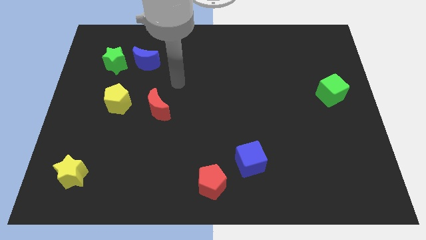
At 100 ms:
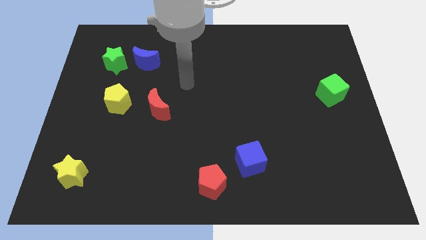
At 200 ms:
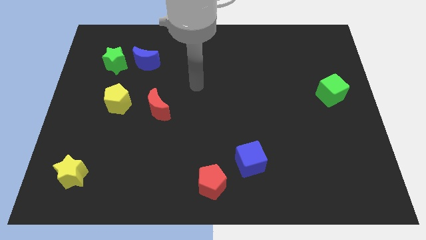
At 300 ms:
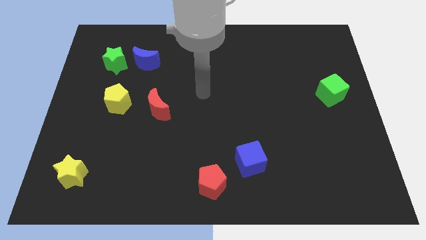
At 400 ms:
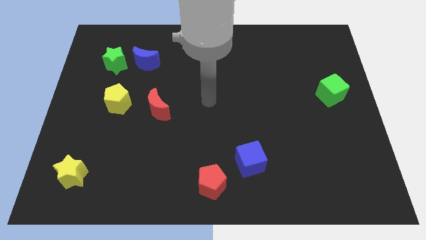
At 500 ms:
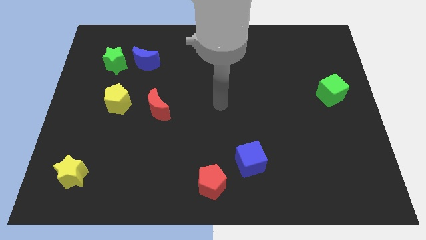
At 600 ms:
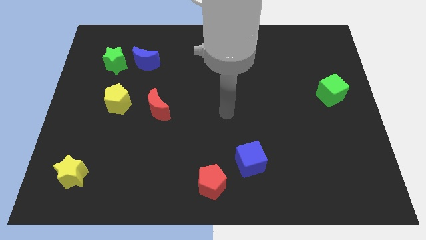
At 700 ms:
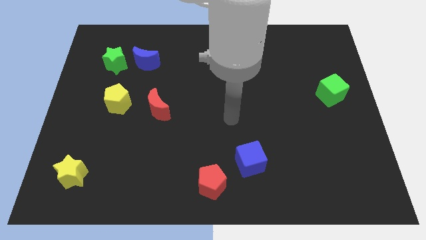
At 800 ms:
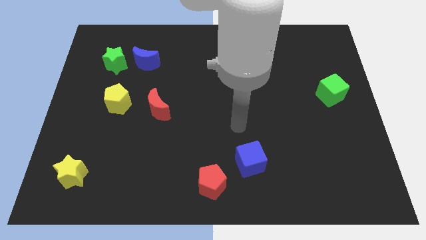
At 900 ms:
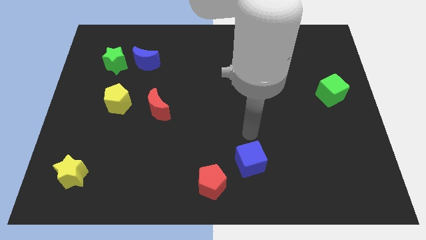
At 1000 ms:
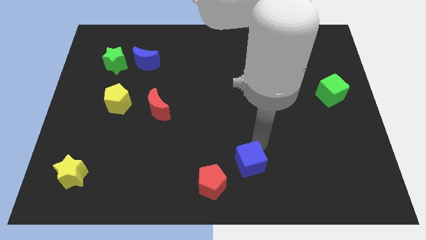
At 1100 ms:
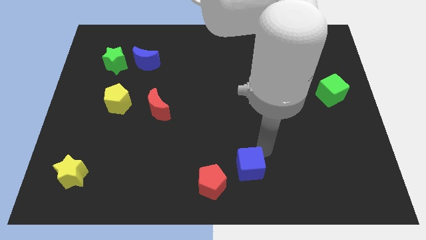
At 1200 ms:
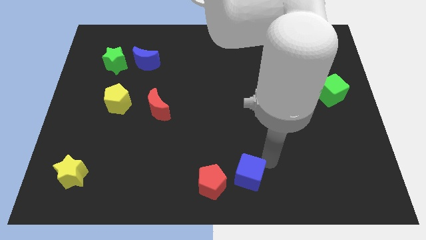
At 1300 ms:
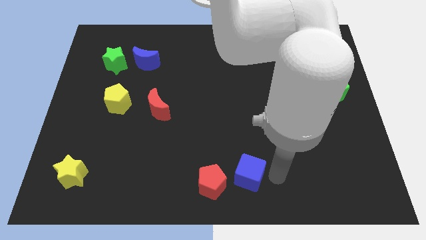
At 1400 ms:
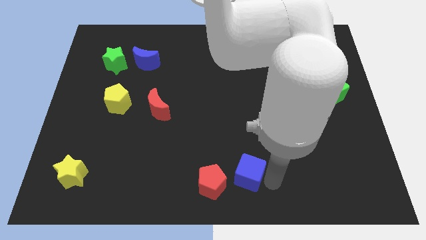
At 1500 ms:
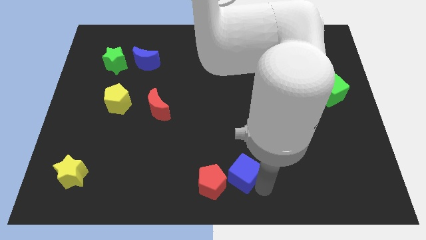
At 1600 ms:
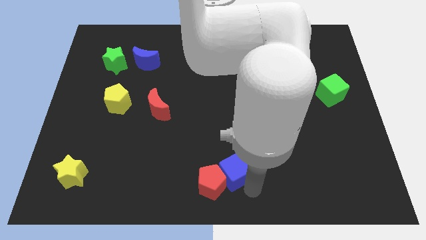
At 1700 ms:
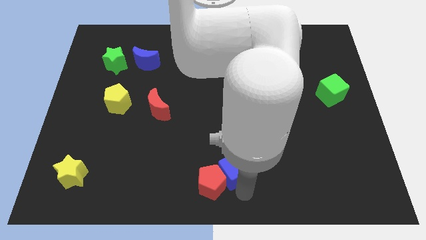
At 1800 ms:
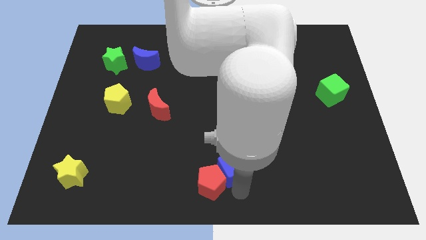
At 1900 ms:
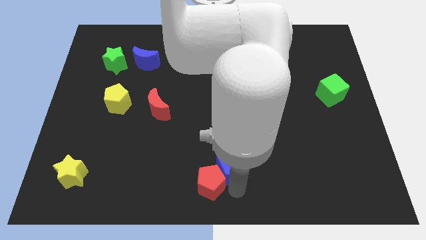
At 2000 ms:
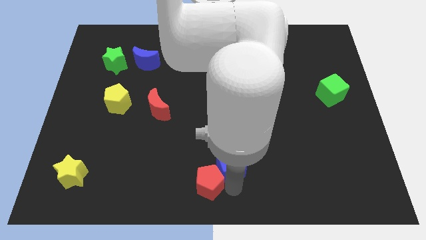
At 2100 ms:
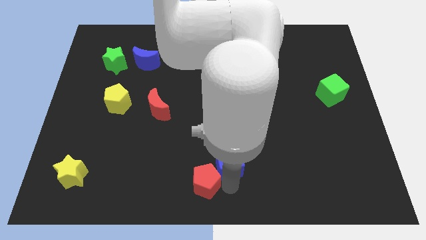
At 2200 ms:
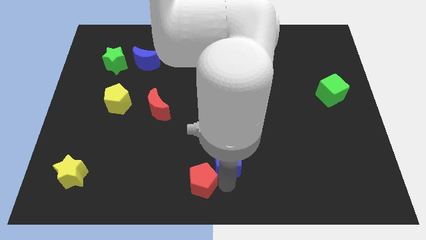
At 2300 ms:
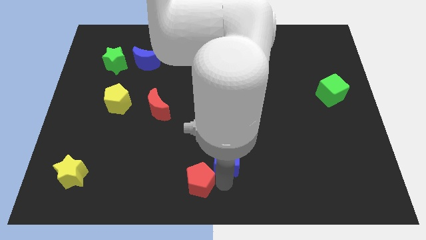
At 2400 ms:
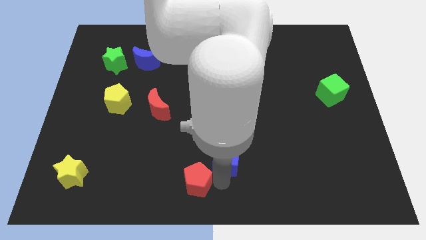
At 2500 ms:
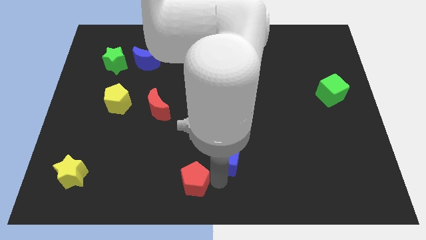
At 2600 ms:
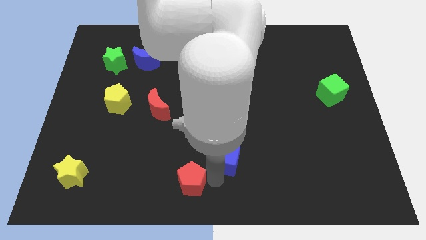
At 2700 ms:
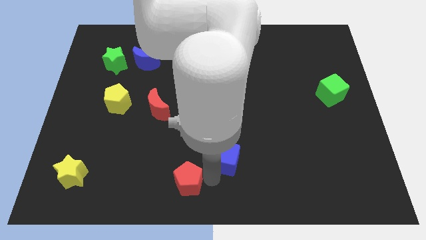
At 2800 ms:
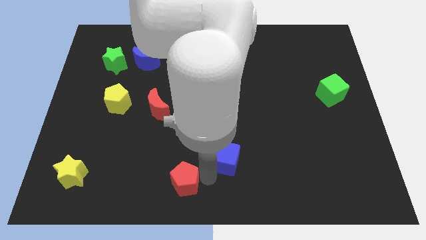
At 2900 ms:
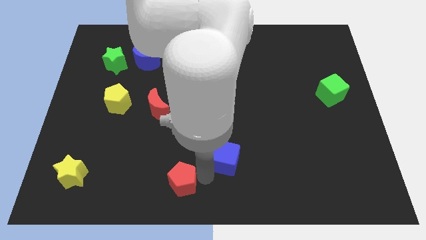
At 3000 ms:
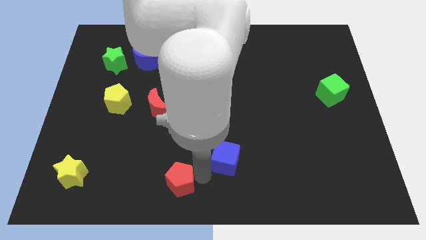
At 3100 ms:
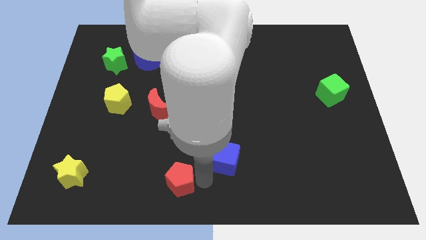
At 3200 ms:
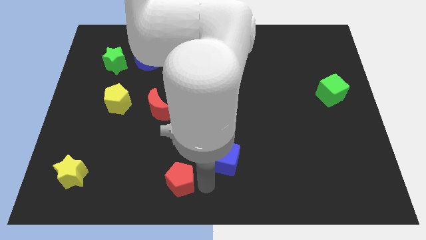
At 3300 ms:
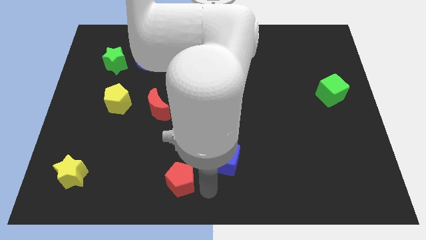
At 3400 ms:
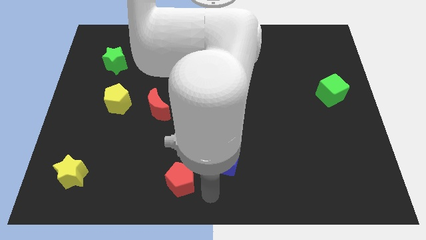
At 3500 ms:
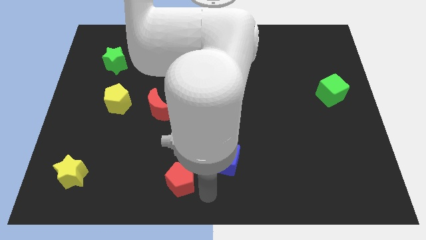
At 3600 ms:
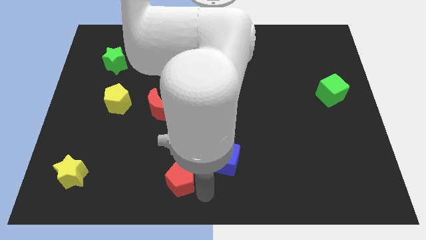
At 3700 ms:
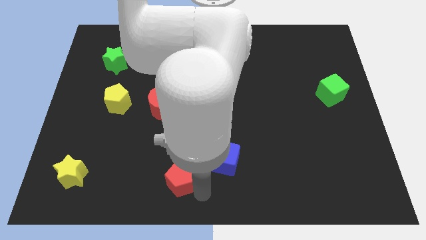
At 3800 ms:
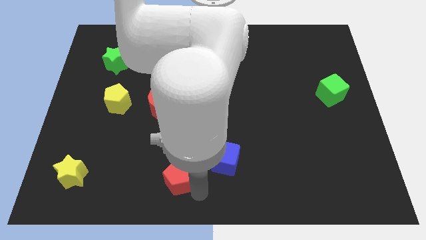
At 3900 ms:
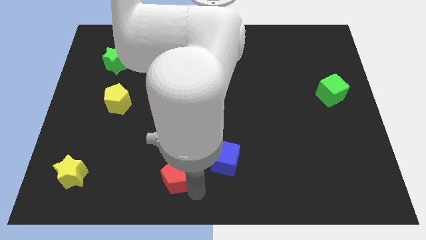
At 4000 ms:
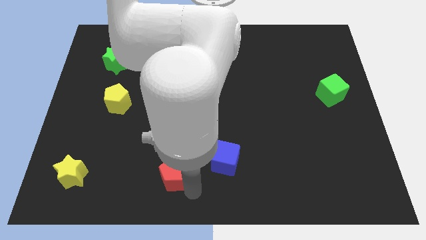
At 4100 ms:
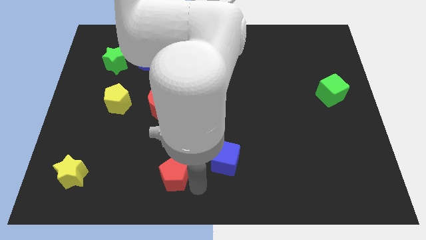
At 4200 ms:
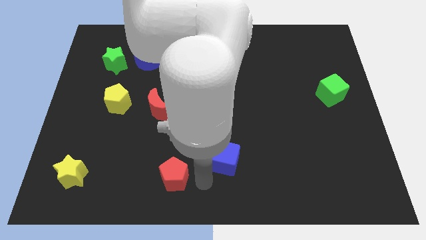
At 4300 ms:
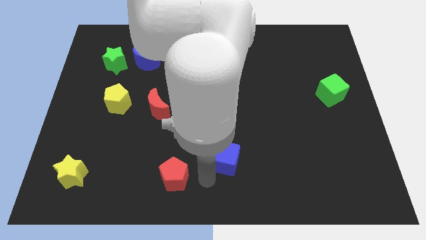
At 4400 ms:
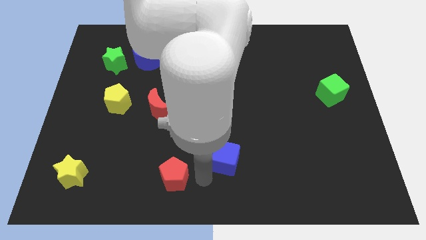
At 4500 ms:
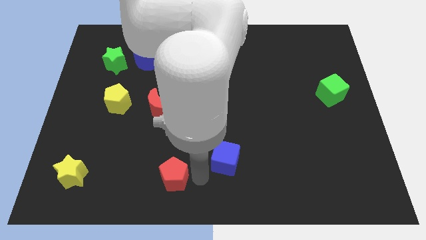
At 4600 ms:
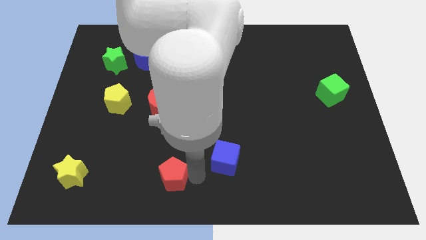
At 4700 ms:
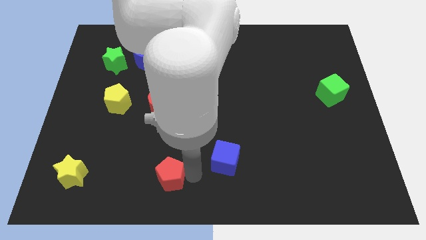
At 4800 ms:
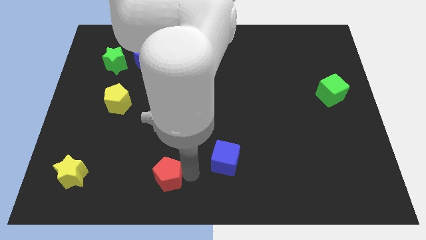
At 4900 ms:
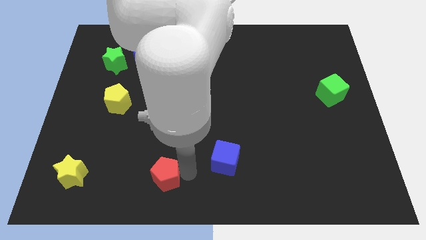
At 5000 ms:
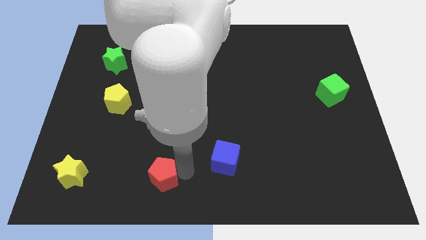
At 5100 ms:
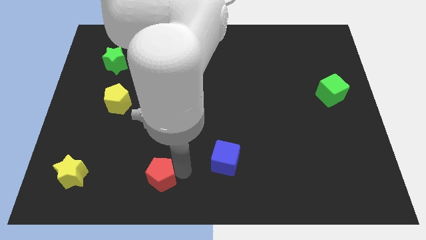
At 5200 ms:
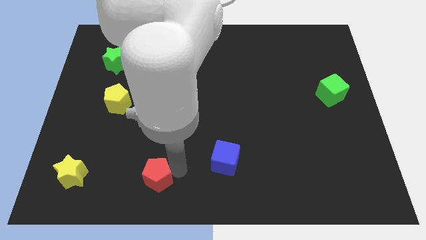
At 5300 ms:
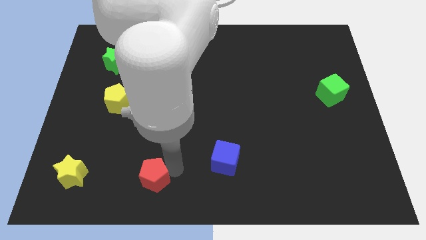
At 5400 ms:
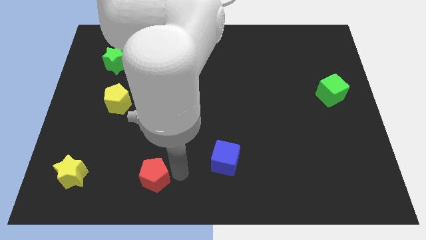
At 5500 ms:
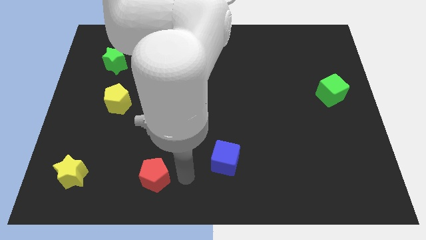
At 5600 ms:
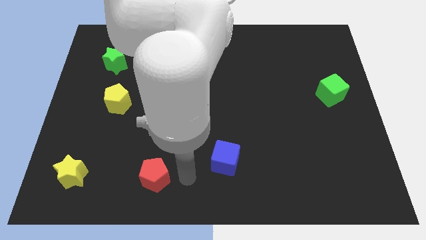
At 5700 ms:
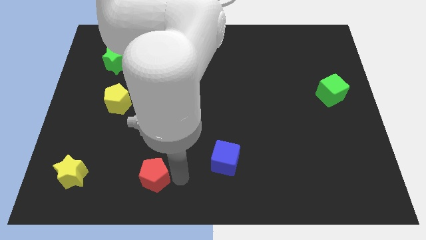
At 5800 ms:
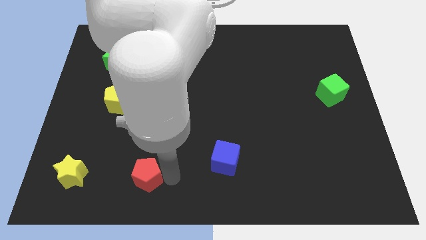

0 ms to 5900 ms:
move the red pentagon right of the yellow star

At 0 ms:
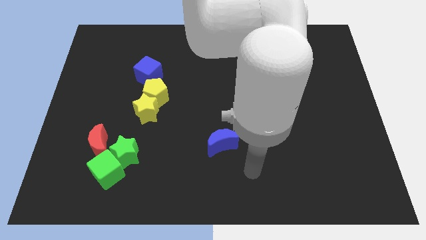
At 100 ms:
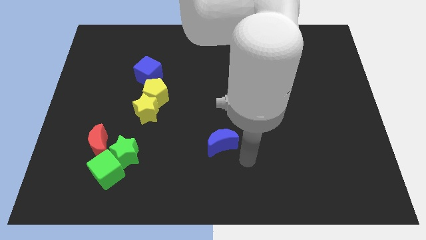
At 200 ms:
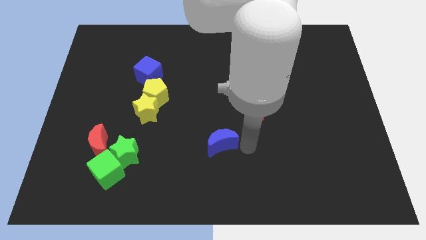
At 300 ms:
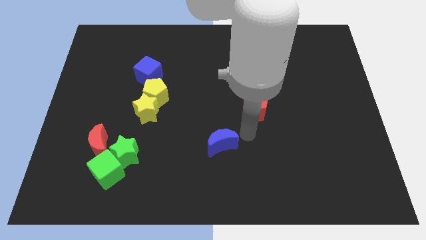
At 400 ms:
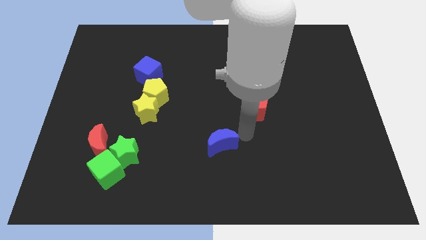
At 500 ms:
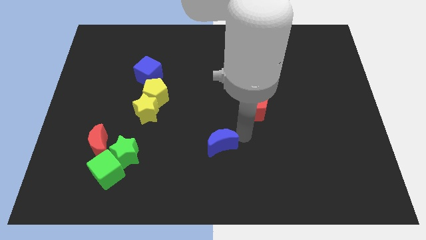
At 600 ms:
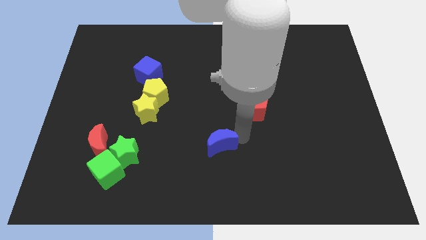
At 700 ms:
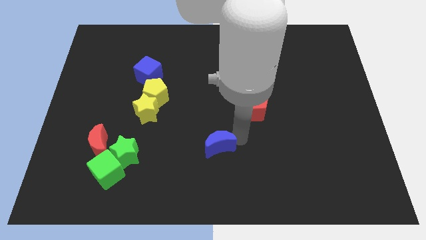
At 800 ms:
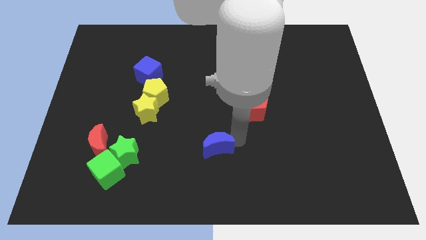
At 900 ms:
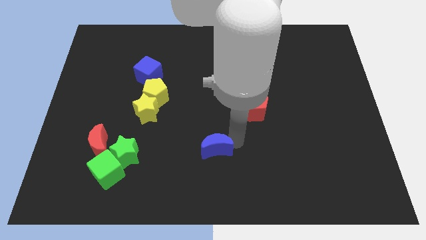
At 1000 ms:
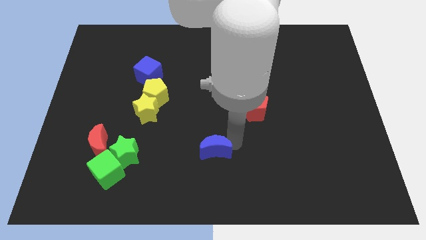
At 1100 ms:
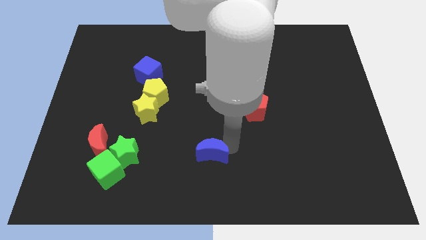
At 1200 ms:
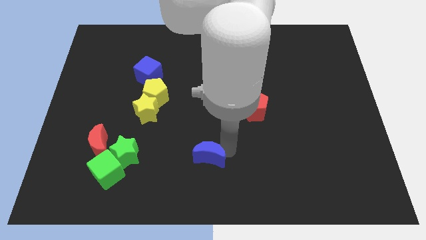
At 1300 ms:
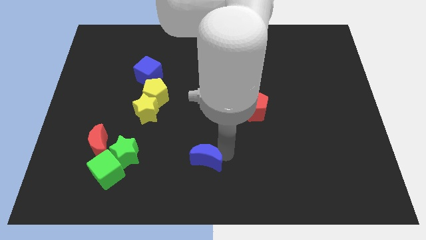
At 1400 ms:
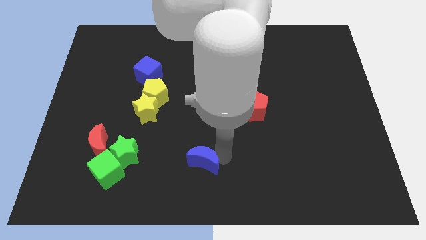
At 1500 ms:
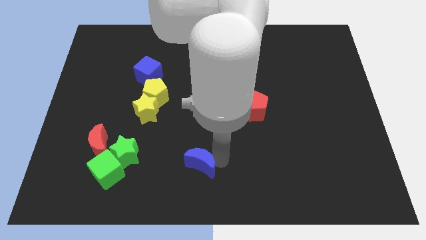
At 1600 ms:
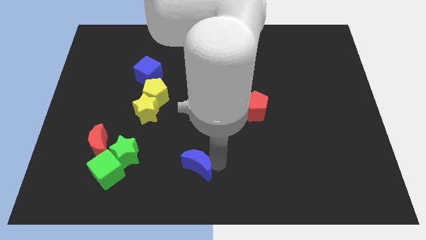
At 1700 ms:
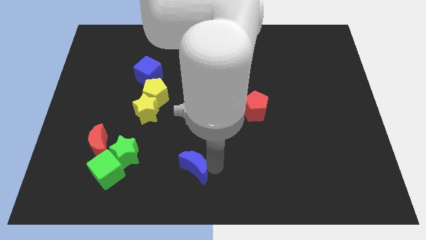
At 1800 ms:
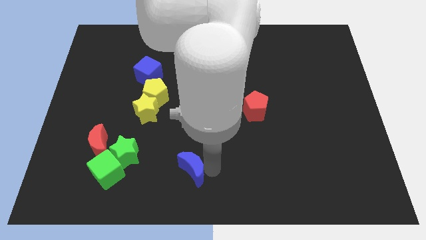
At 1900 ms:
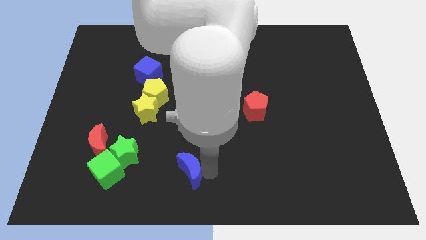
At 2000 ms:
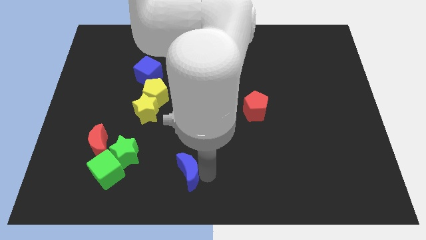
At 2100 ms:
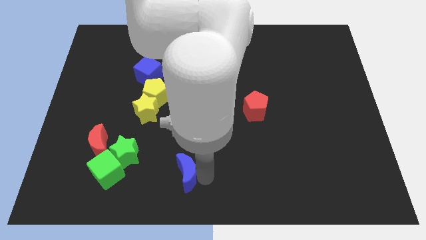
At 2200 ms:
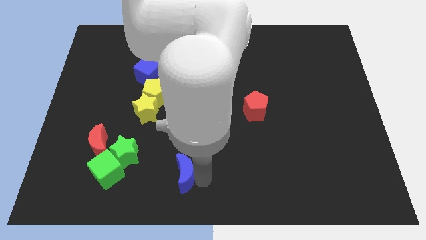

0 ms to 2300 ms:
move the blue moon to the right side of the green cube
